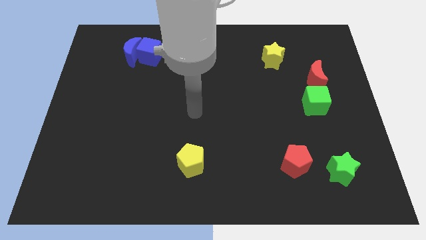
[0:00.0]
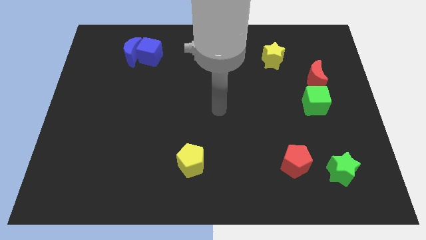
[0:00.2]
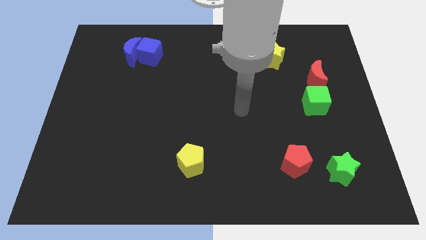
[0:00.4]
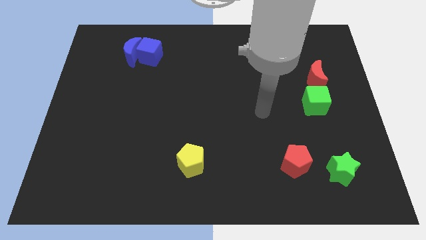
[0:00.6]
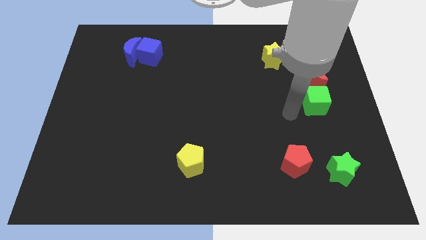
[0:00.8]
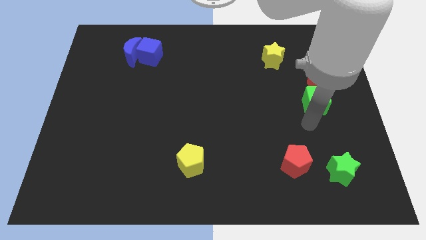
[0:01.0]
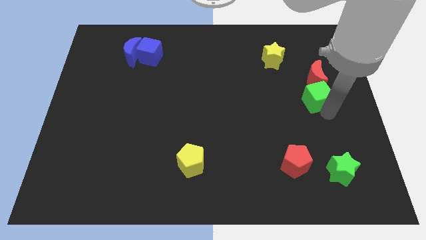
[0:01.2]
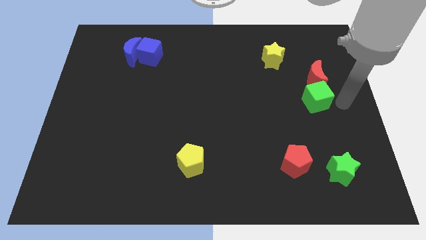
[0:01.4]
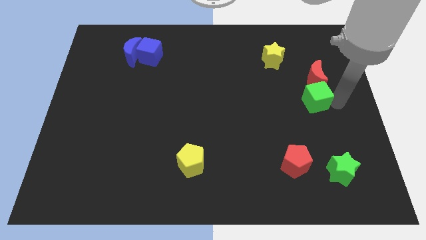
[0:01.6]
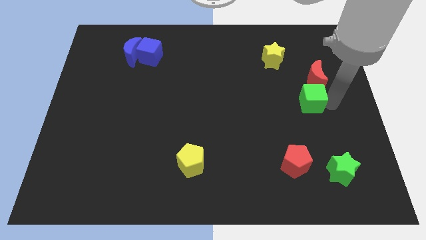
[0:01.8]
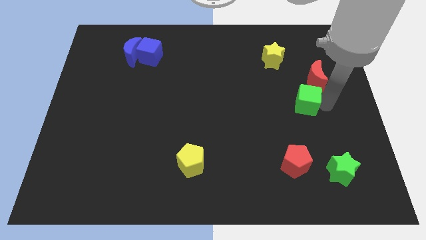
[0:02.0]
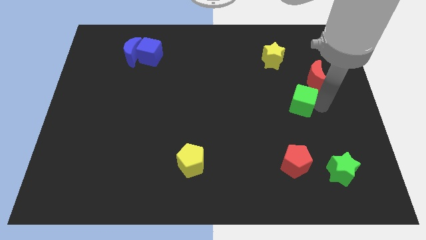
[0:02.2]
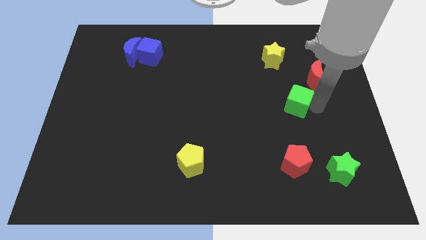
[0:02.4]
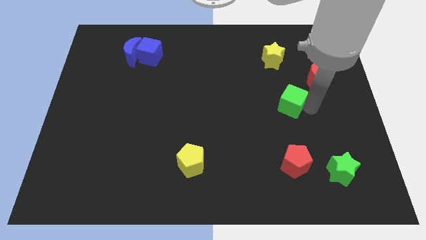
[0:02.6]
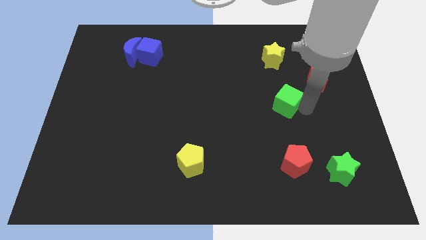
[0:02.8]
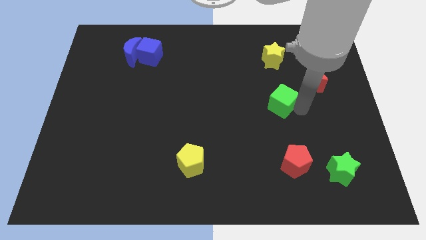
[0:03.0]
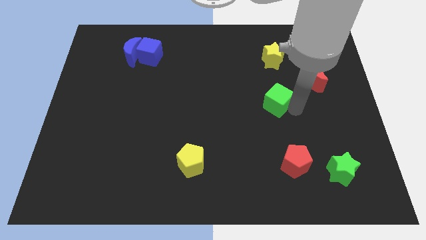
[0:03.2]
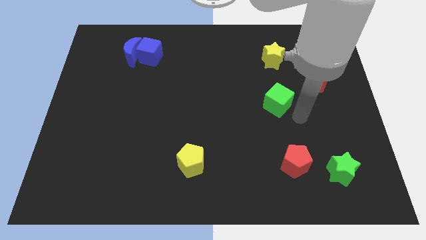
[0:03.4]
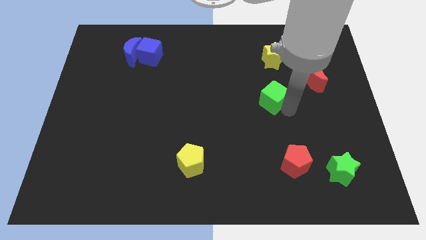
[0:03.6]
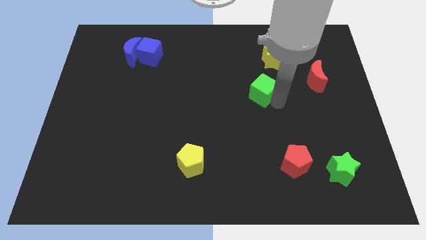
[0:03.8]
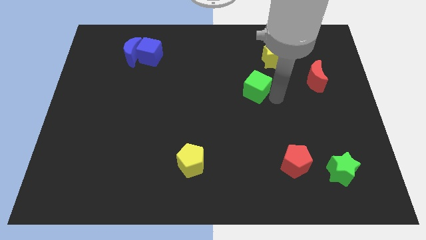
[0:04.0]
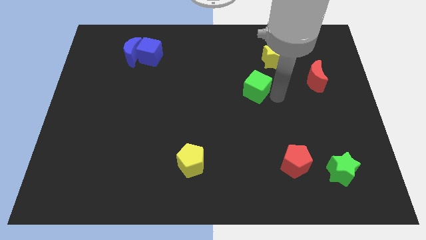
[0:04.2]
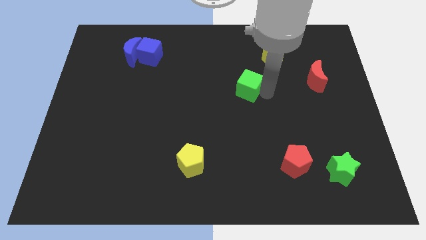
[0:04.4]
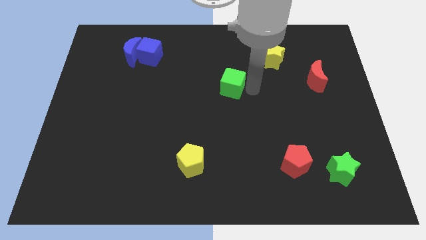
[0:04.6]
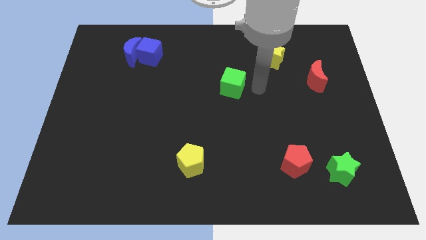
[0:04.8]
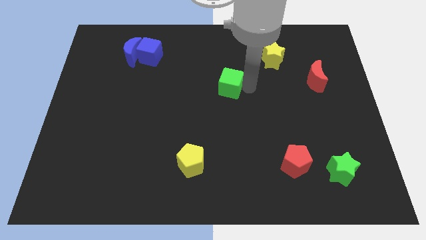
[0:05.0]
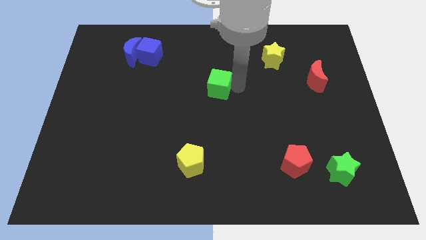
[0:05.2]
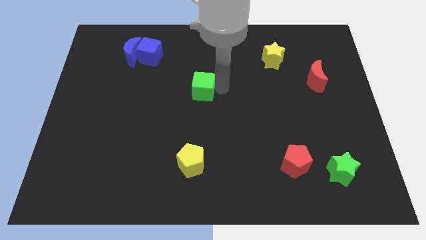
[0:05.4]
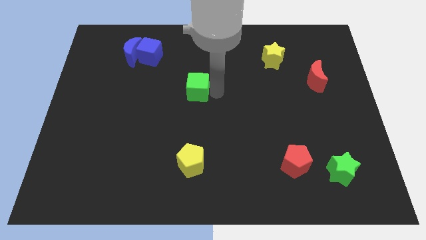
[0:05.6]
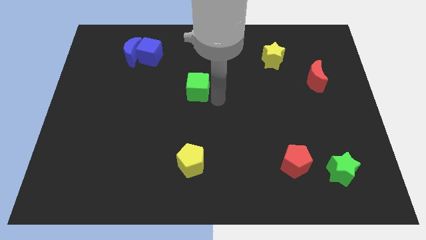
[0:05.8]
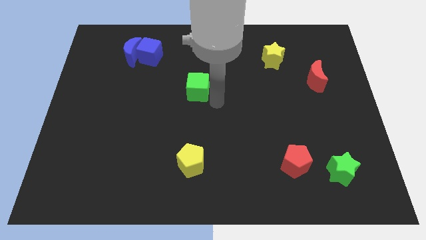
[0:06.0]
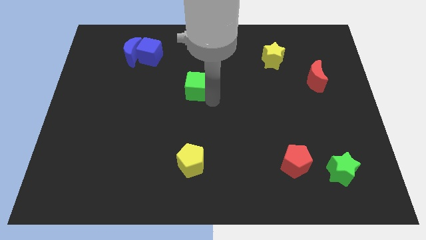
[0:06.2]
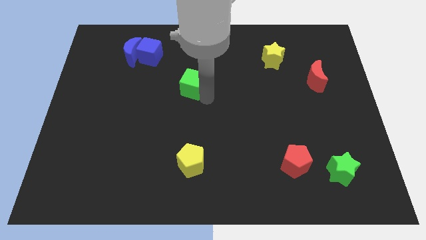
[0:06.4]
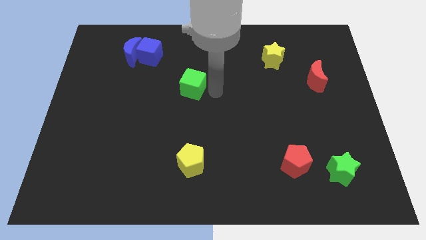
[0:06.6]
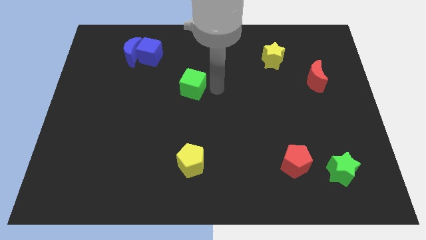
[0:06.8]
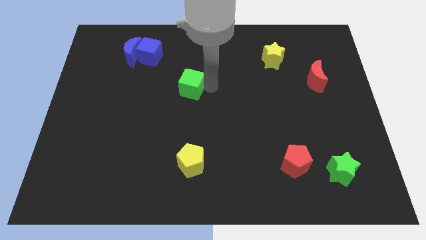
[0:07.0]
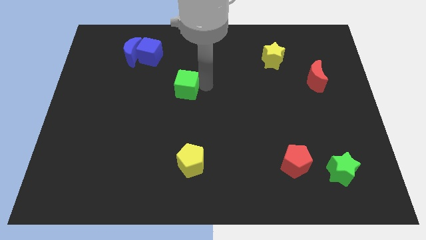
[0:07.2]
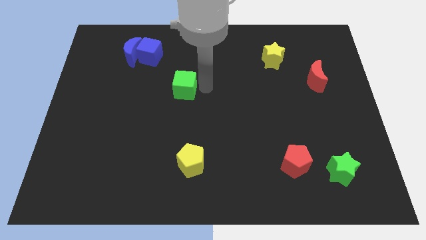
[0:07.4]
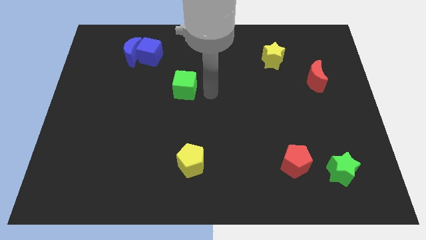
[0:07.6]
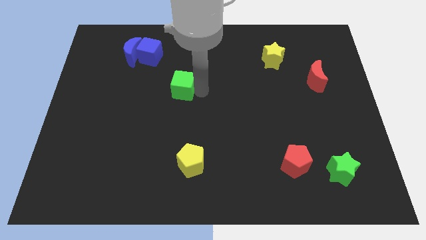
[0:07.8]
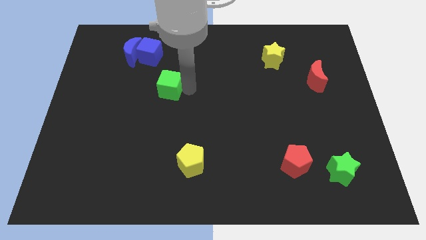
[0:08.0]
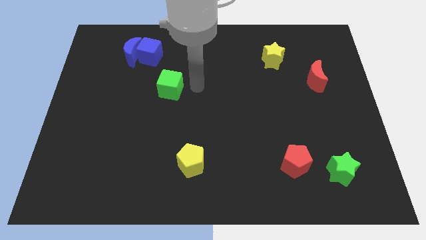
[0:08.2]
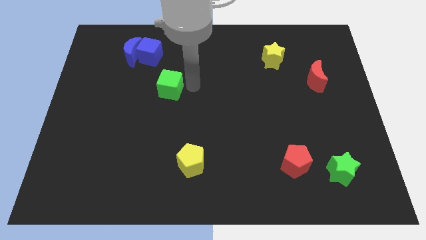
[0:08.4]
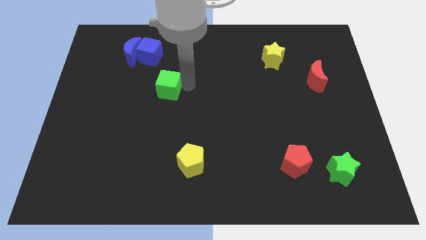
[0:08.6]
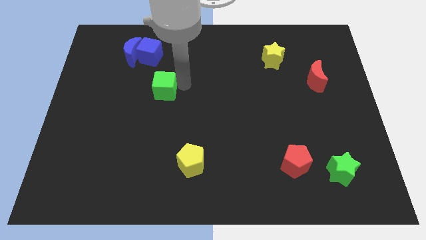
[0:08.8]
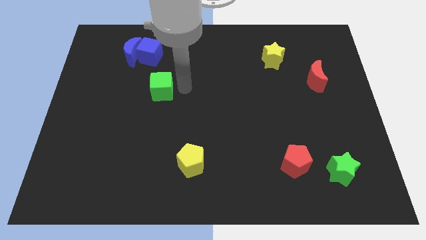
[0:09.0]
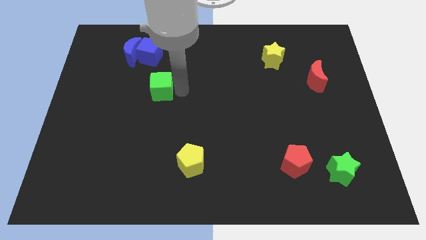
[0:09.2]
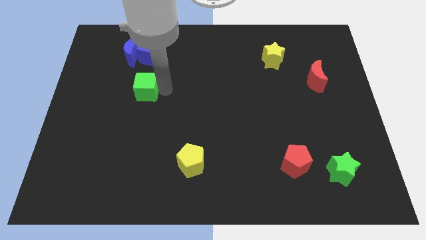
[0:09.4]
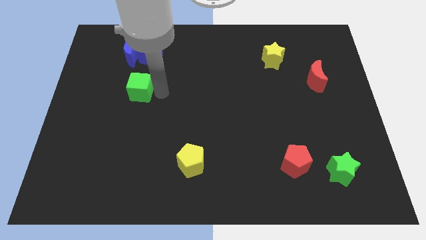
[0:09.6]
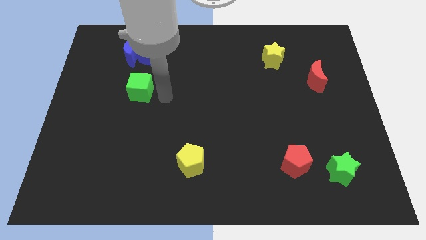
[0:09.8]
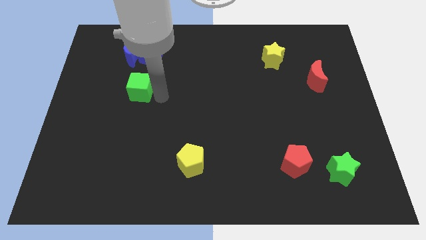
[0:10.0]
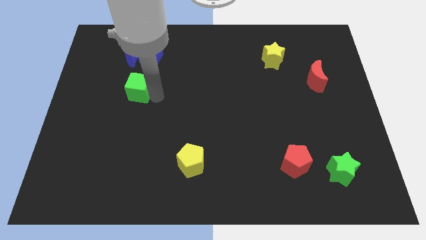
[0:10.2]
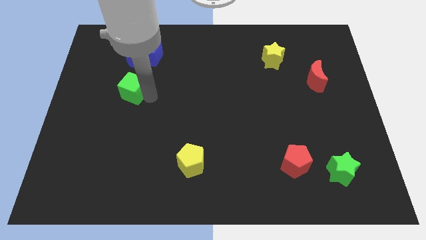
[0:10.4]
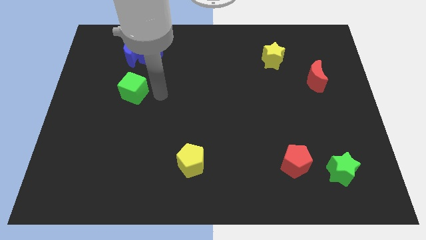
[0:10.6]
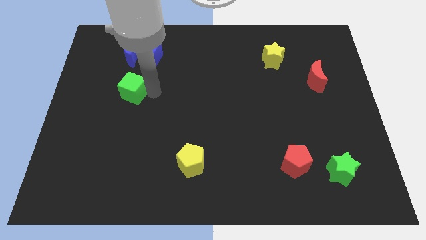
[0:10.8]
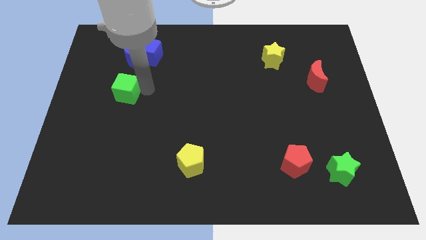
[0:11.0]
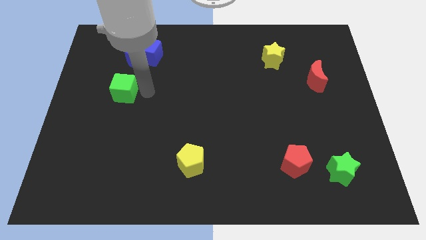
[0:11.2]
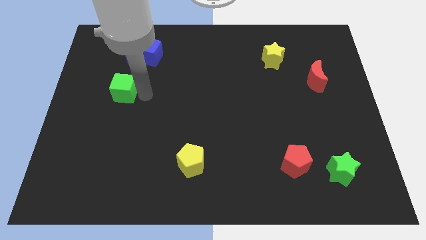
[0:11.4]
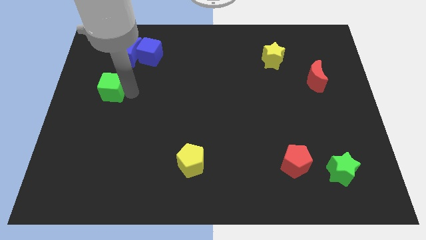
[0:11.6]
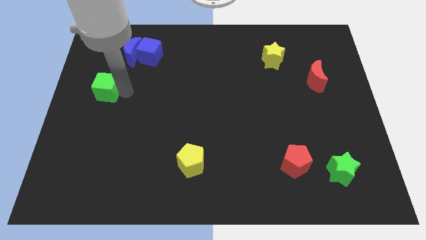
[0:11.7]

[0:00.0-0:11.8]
slide the green cube to the center left

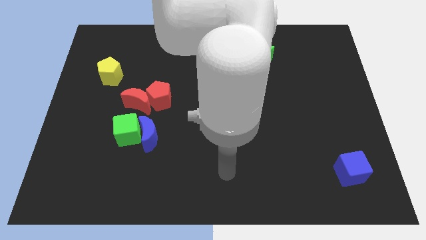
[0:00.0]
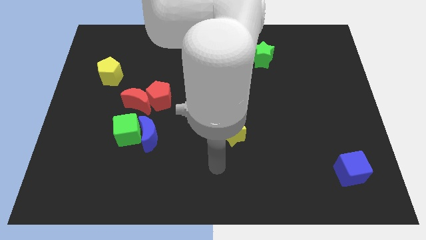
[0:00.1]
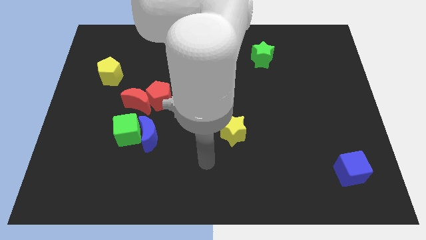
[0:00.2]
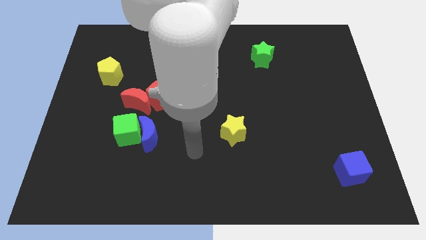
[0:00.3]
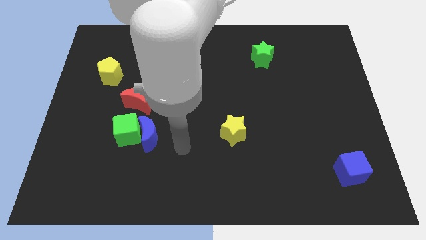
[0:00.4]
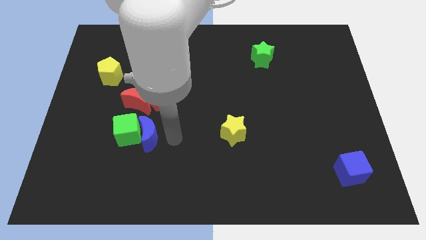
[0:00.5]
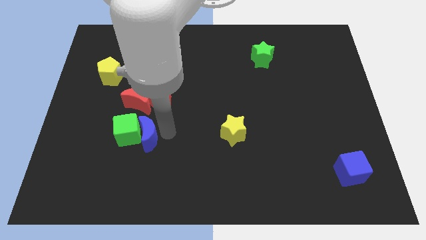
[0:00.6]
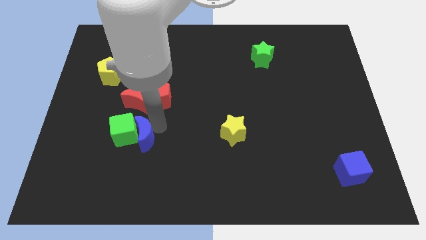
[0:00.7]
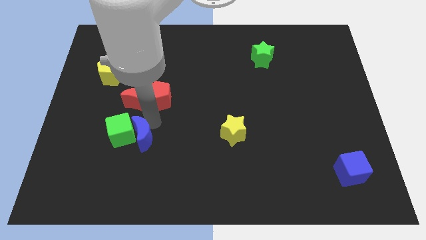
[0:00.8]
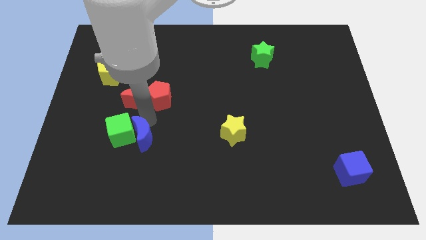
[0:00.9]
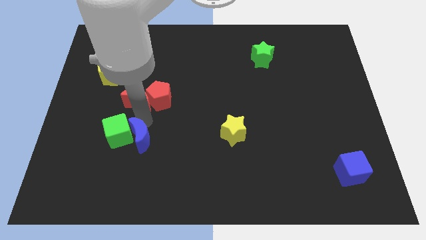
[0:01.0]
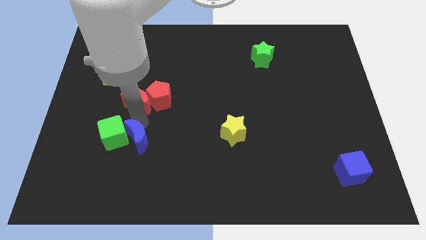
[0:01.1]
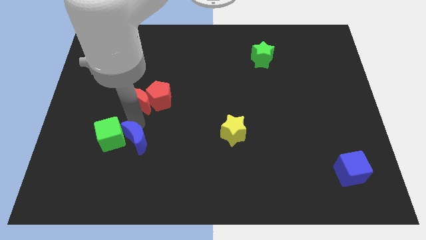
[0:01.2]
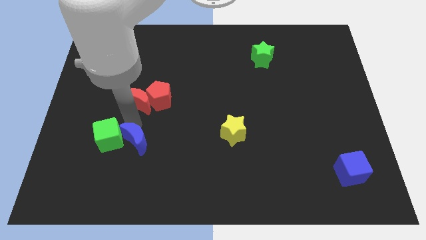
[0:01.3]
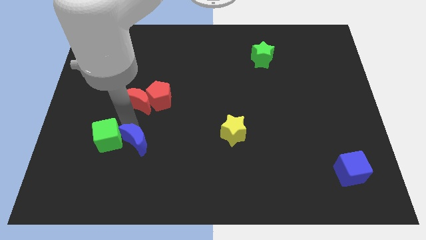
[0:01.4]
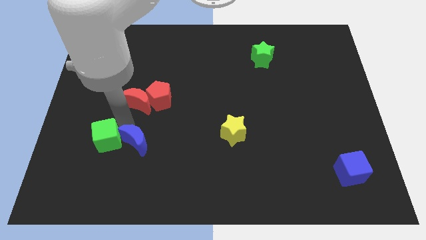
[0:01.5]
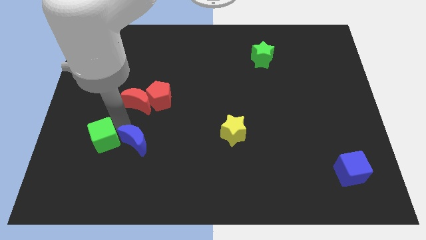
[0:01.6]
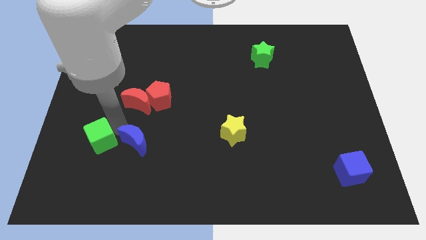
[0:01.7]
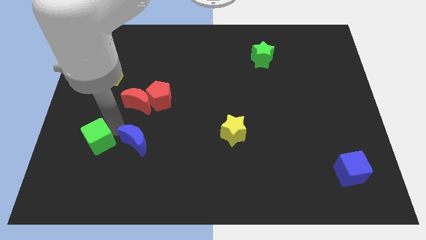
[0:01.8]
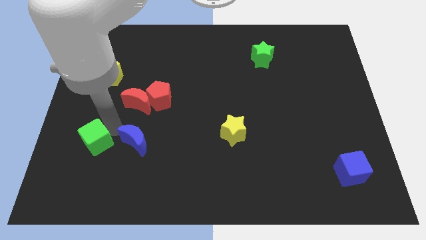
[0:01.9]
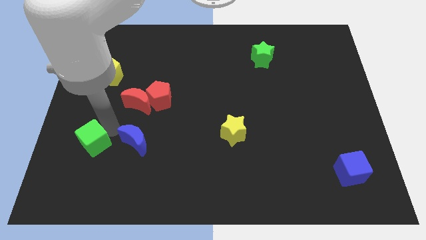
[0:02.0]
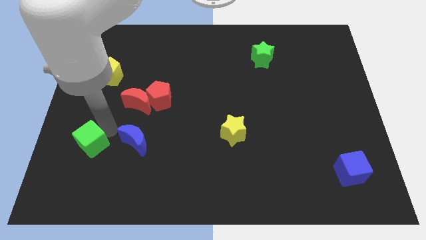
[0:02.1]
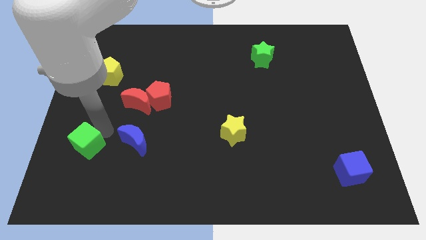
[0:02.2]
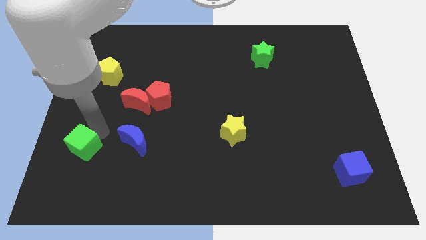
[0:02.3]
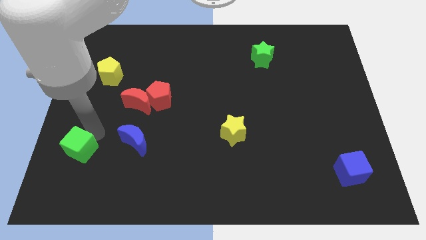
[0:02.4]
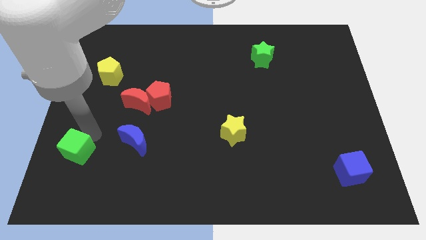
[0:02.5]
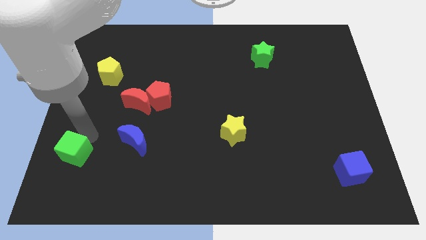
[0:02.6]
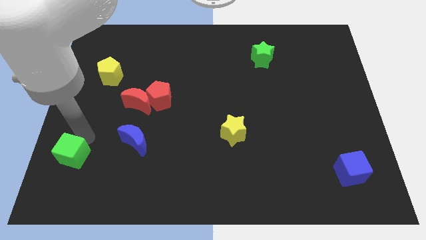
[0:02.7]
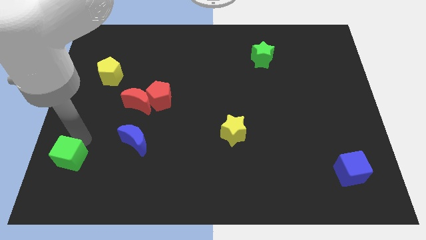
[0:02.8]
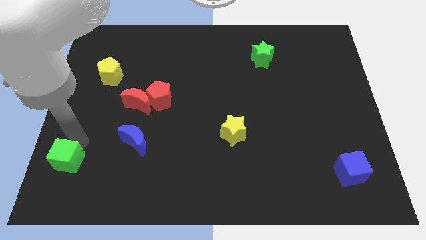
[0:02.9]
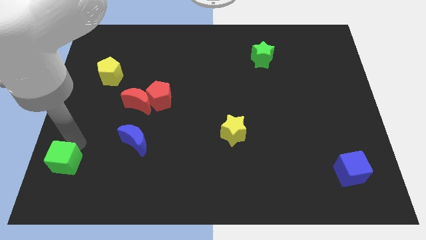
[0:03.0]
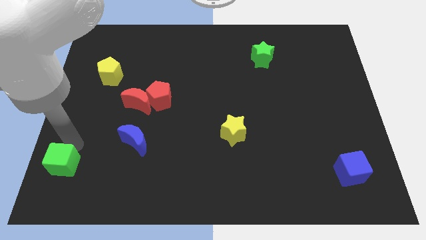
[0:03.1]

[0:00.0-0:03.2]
move the green cube to the lower left corner
